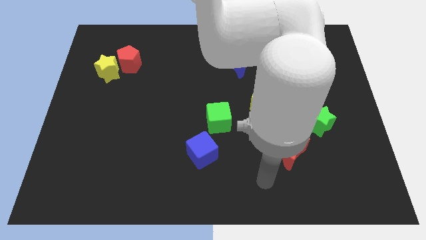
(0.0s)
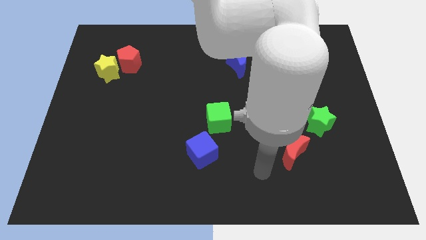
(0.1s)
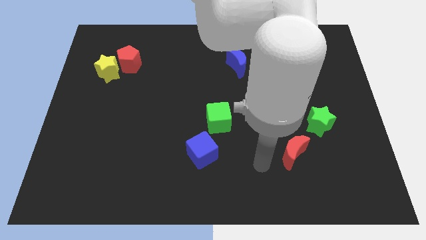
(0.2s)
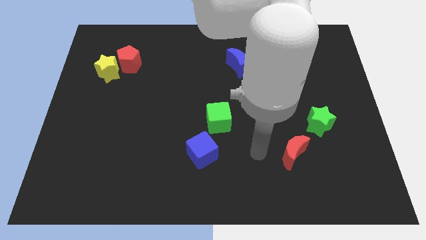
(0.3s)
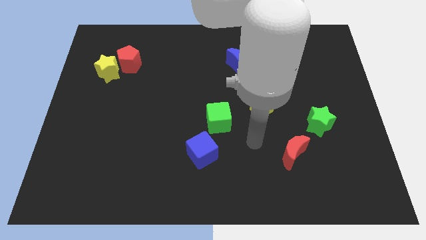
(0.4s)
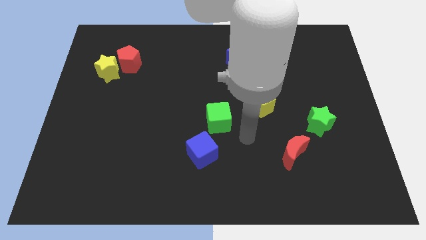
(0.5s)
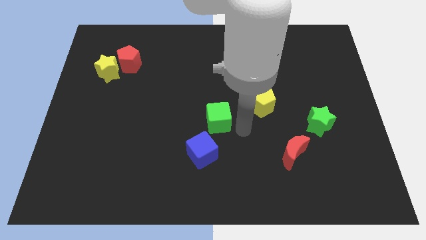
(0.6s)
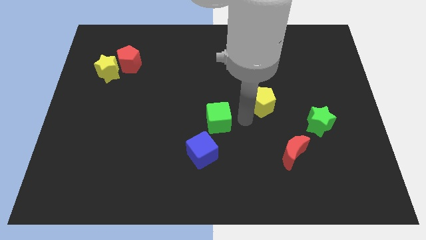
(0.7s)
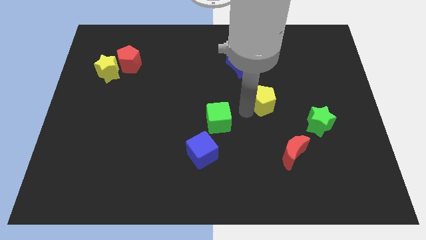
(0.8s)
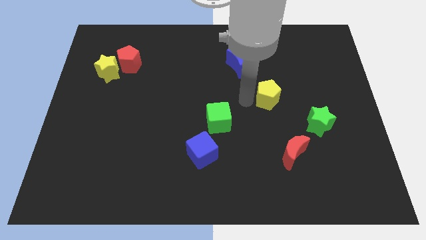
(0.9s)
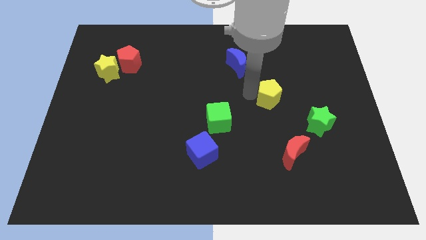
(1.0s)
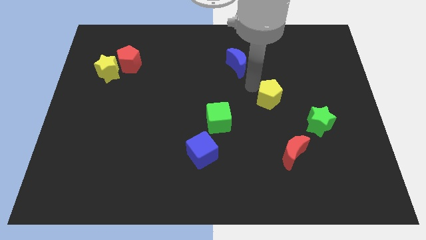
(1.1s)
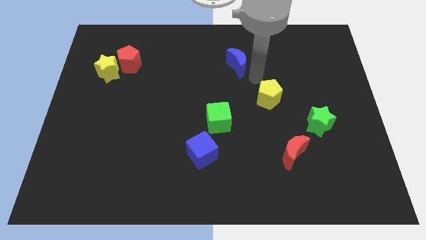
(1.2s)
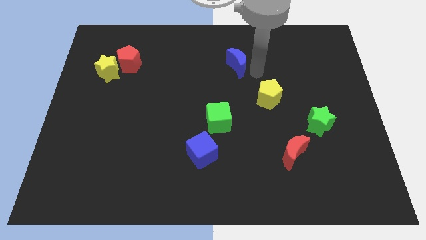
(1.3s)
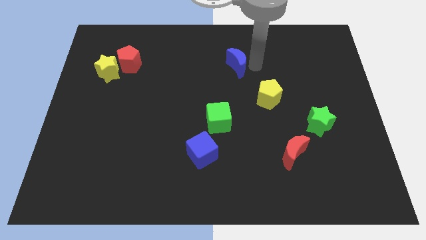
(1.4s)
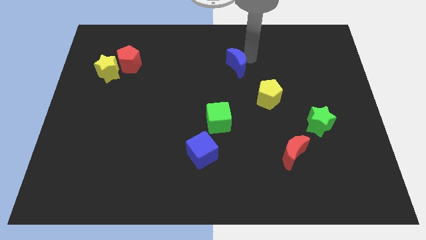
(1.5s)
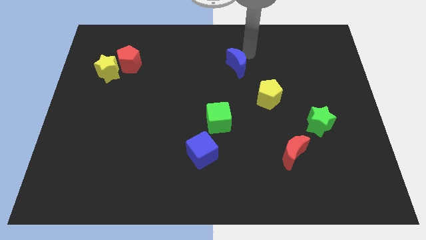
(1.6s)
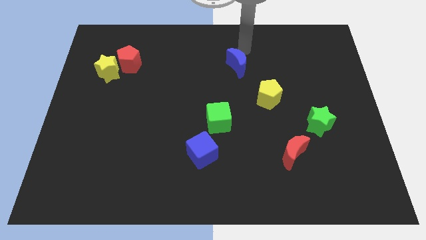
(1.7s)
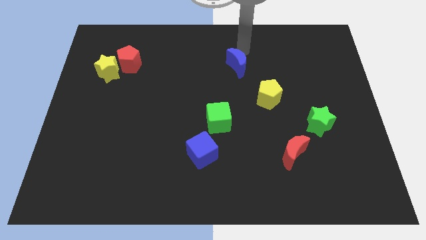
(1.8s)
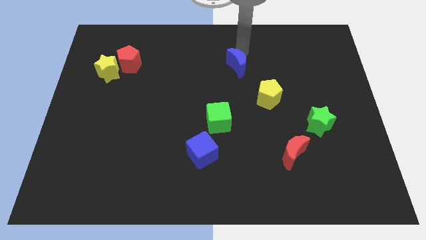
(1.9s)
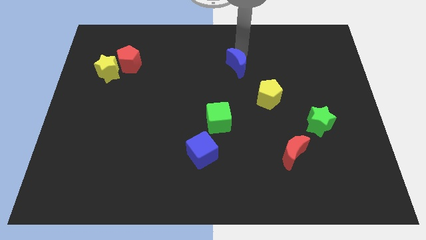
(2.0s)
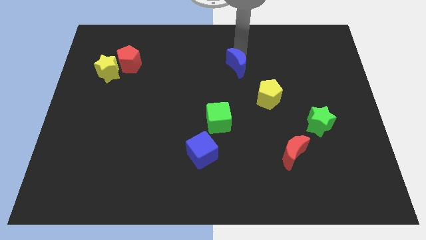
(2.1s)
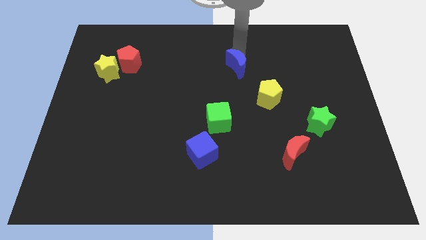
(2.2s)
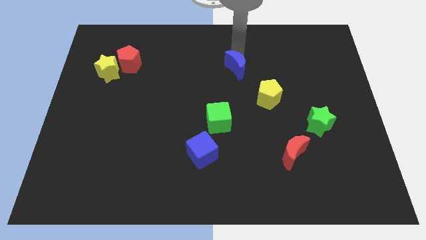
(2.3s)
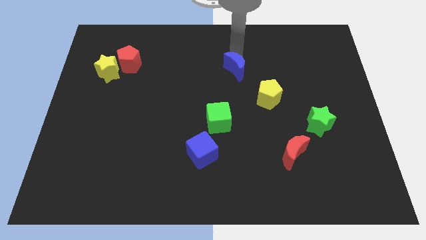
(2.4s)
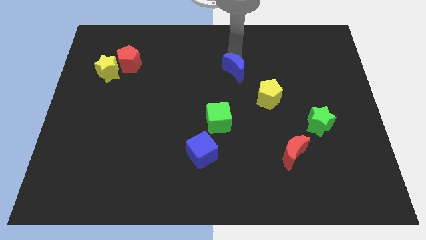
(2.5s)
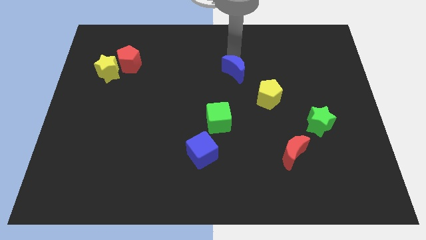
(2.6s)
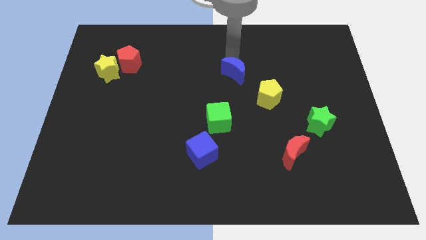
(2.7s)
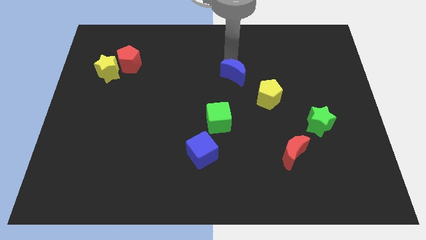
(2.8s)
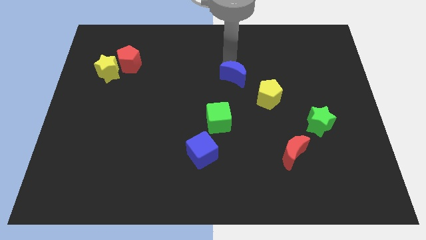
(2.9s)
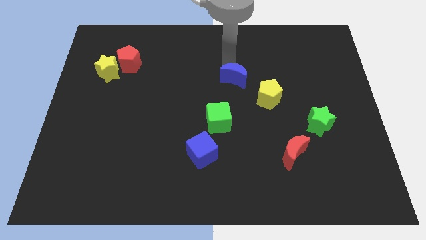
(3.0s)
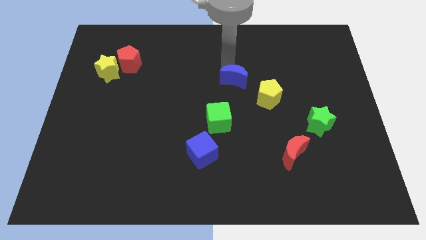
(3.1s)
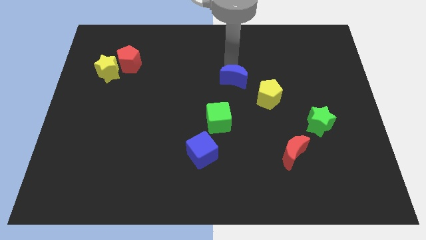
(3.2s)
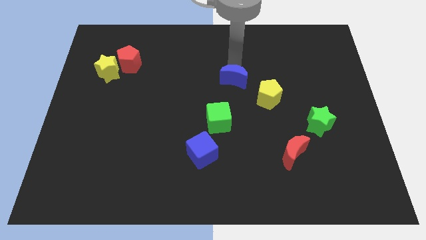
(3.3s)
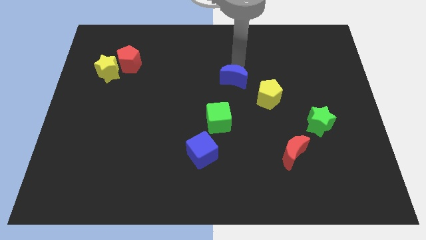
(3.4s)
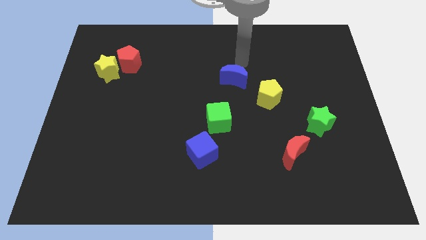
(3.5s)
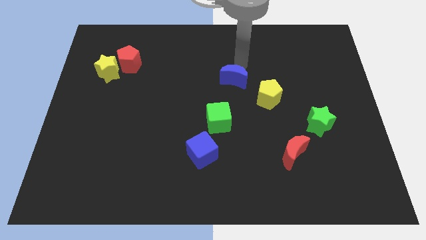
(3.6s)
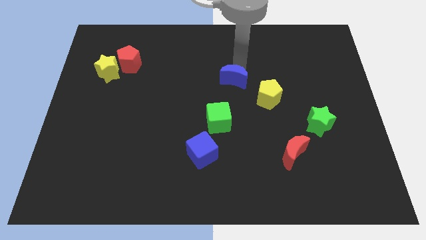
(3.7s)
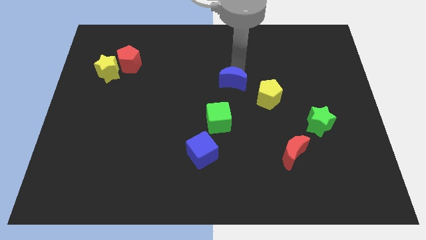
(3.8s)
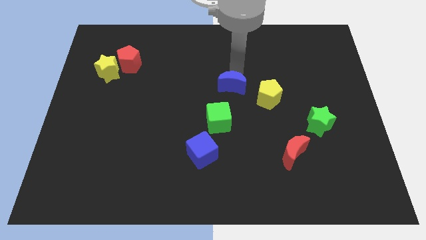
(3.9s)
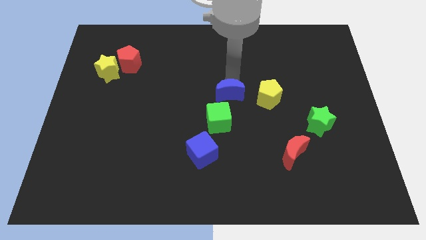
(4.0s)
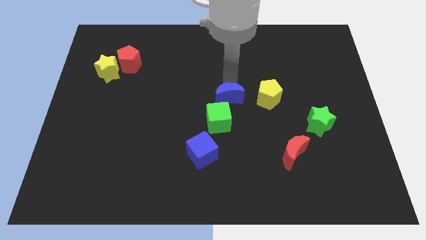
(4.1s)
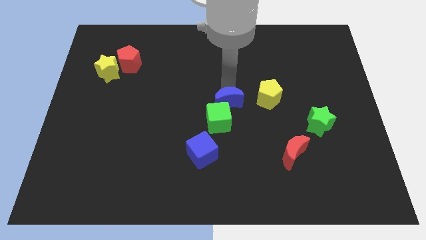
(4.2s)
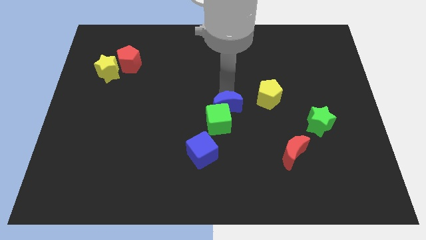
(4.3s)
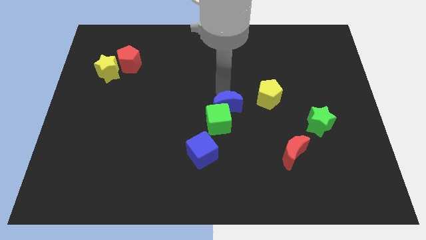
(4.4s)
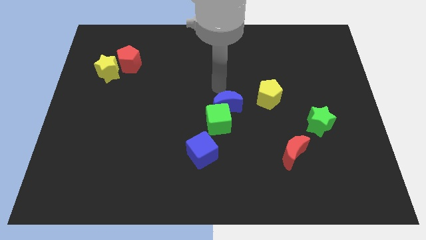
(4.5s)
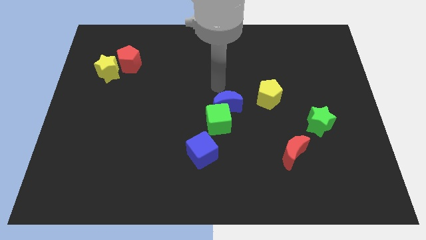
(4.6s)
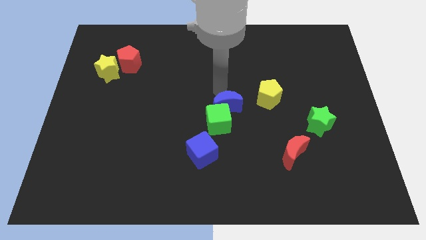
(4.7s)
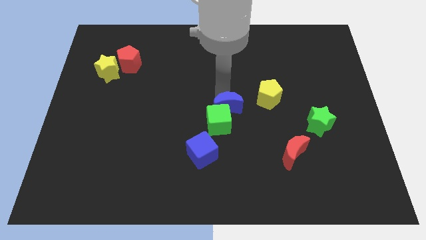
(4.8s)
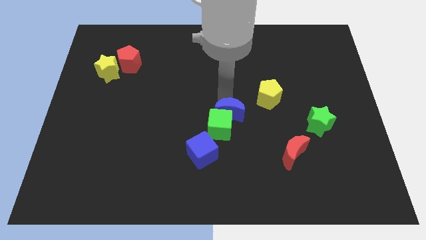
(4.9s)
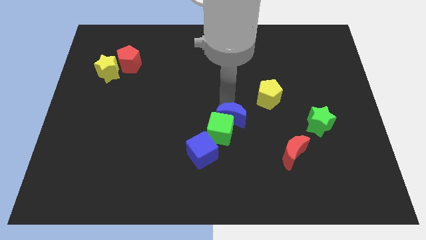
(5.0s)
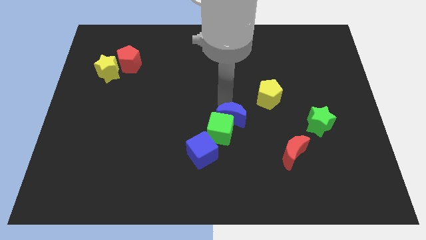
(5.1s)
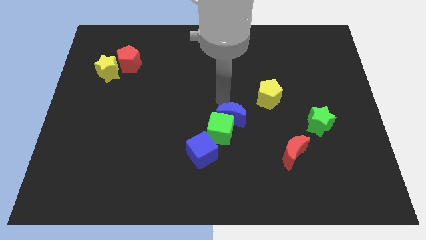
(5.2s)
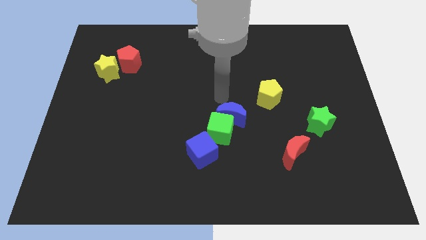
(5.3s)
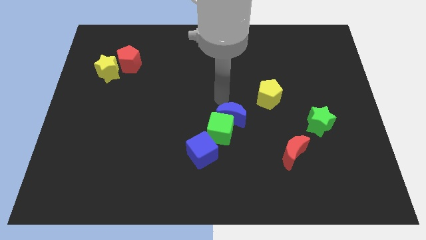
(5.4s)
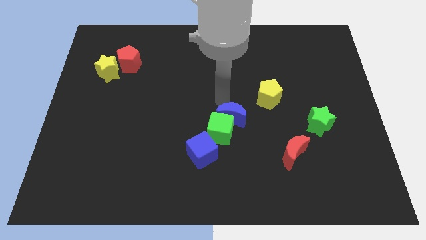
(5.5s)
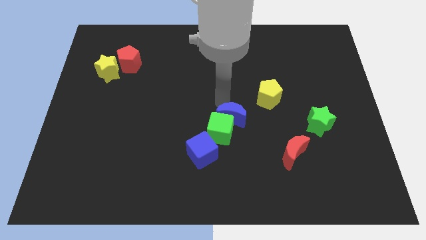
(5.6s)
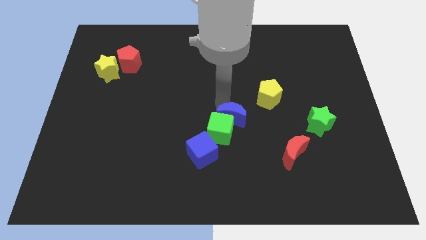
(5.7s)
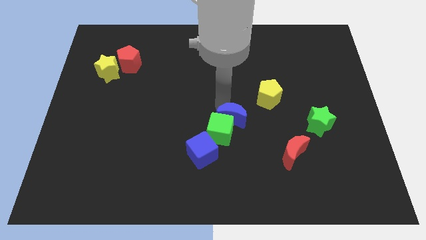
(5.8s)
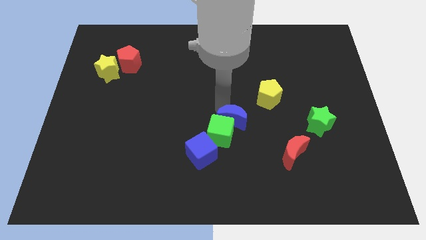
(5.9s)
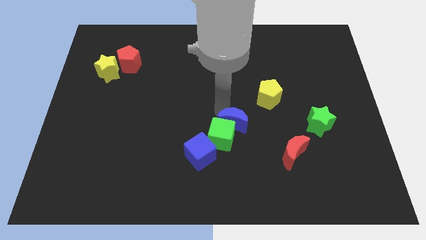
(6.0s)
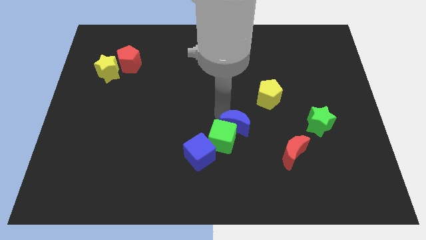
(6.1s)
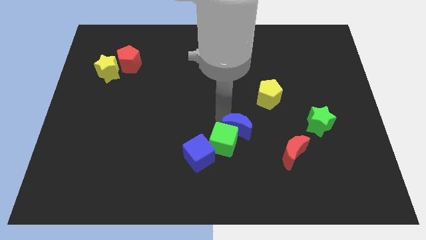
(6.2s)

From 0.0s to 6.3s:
move the blue moon downwards

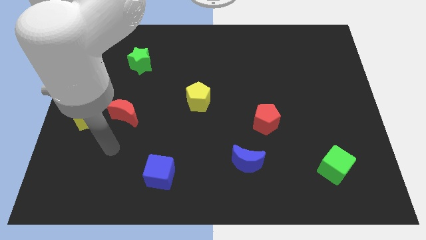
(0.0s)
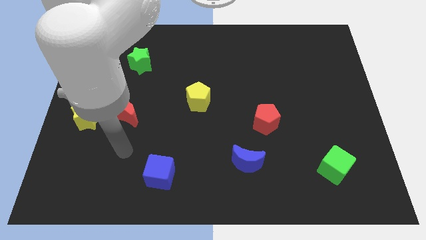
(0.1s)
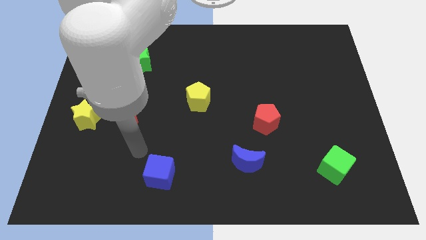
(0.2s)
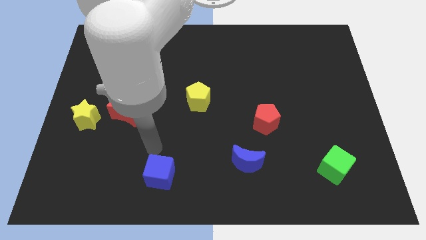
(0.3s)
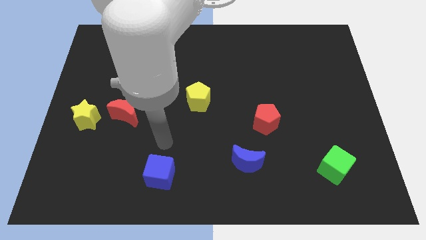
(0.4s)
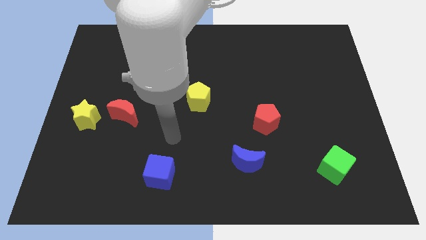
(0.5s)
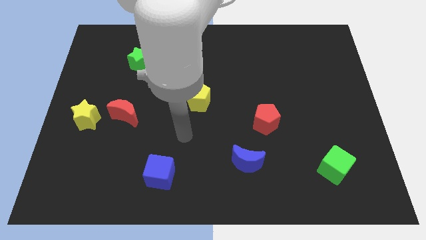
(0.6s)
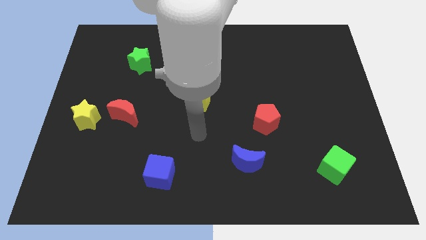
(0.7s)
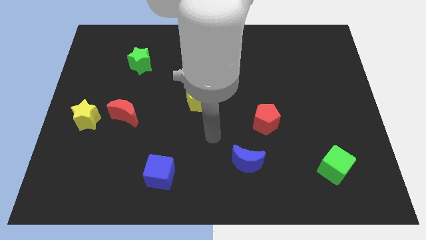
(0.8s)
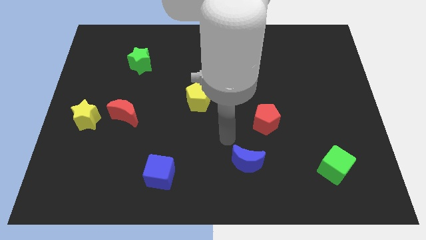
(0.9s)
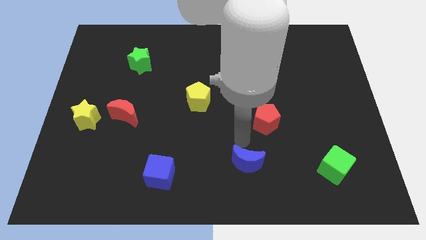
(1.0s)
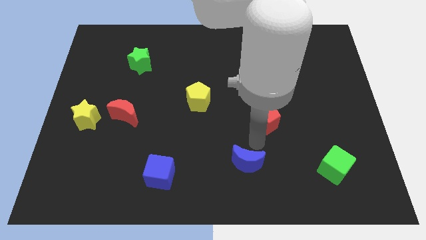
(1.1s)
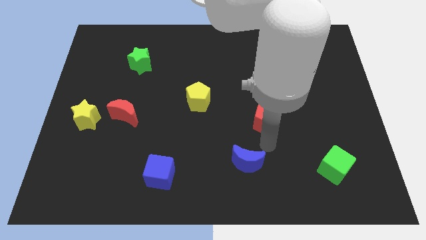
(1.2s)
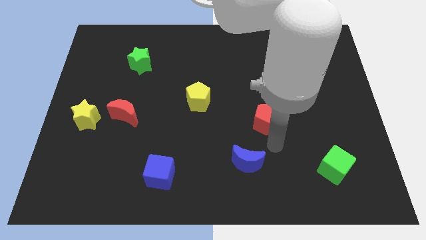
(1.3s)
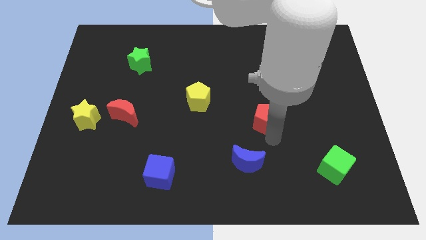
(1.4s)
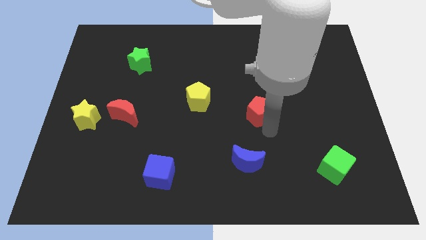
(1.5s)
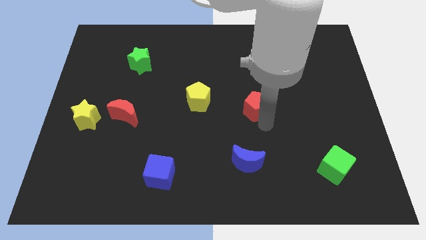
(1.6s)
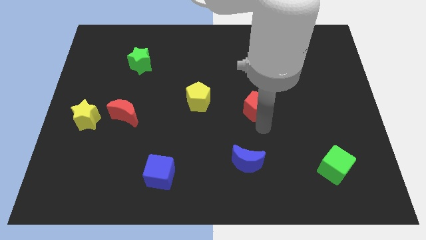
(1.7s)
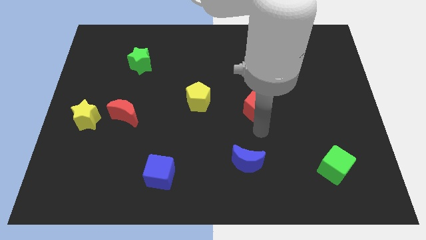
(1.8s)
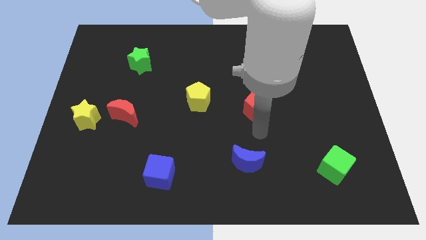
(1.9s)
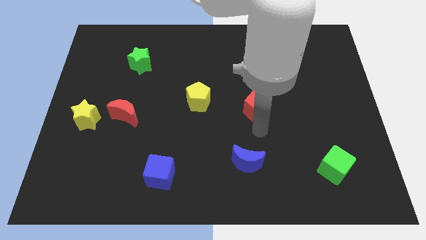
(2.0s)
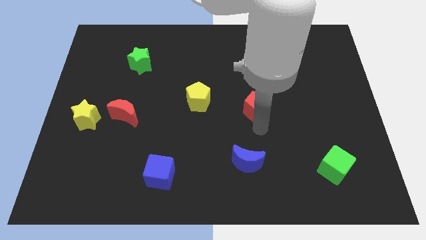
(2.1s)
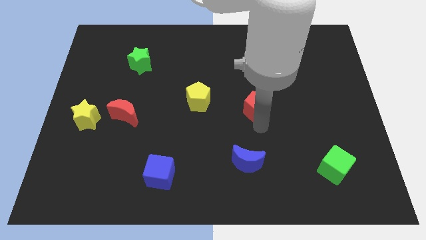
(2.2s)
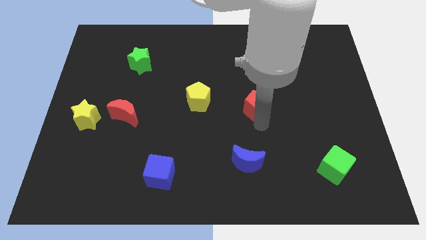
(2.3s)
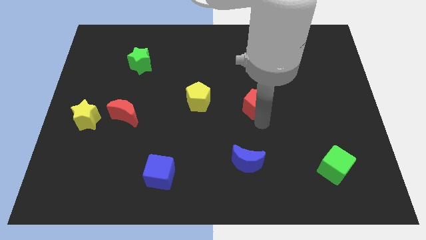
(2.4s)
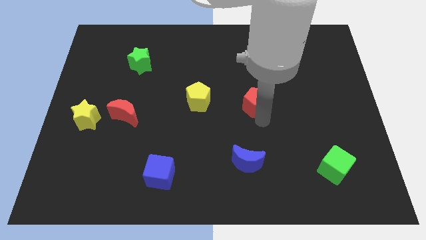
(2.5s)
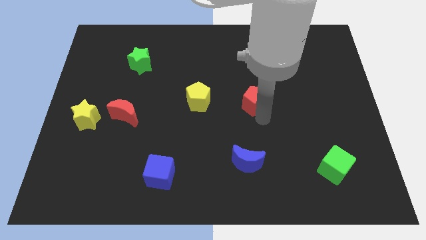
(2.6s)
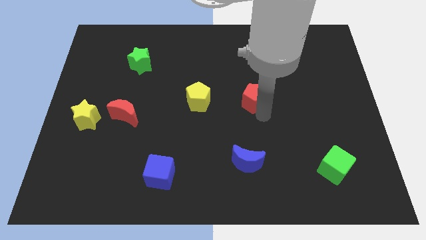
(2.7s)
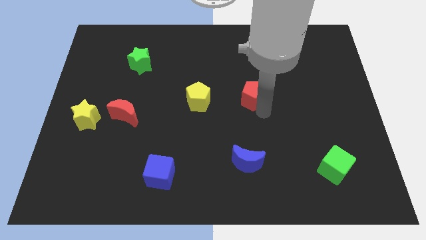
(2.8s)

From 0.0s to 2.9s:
slightly push the red pentagon upwards
